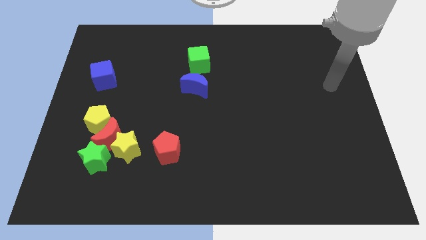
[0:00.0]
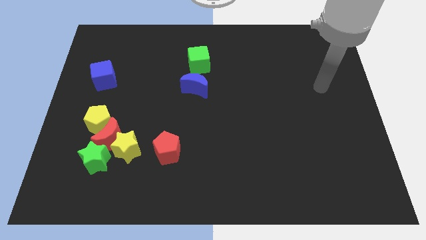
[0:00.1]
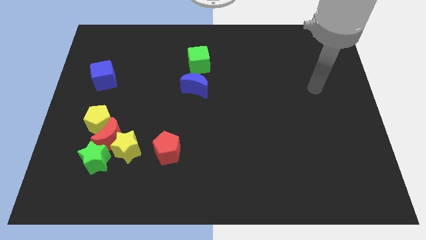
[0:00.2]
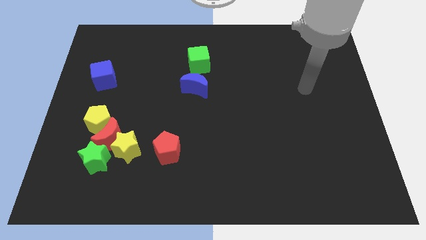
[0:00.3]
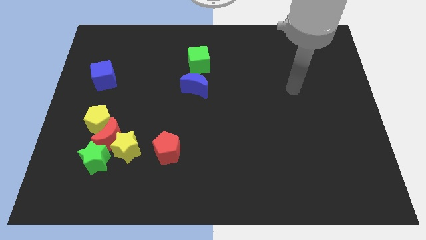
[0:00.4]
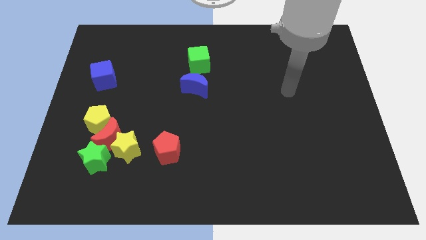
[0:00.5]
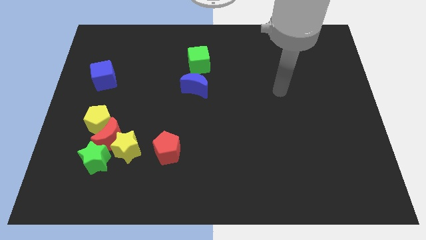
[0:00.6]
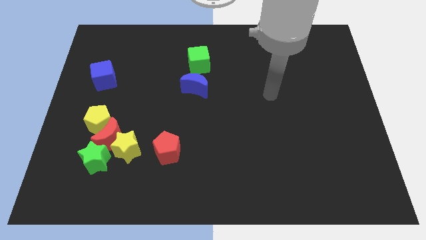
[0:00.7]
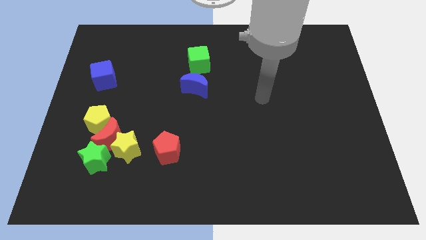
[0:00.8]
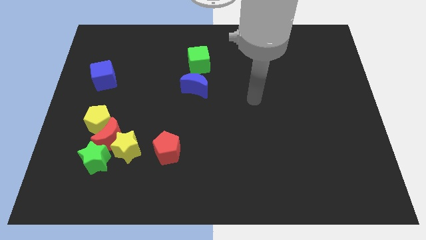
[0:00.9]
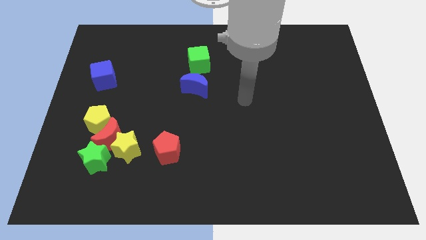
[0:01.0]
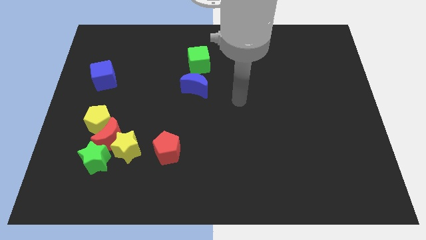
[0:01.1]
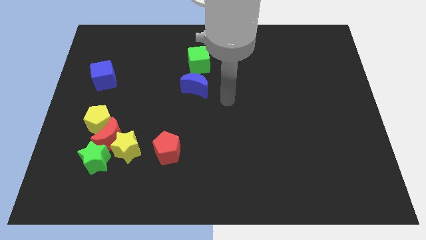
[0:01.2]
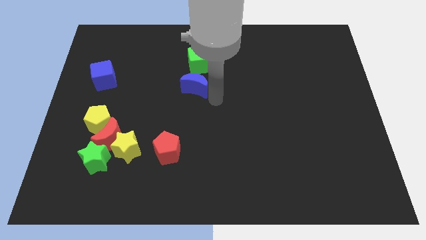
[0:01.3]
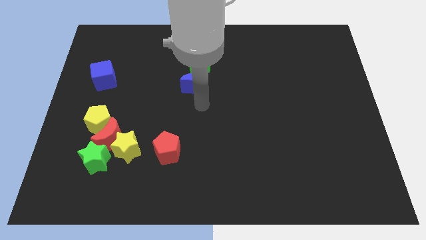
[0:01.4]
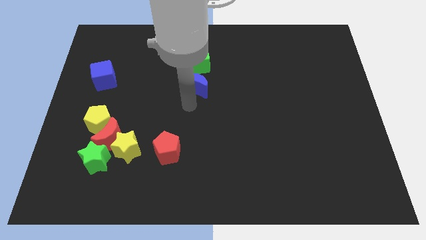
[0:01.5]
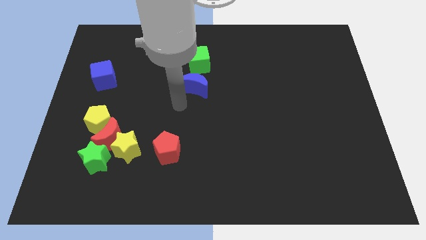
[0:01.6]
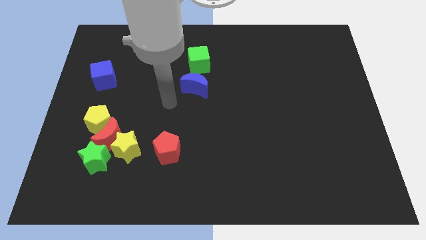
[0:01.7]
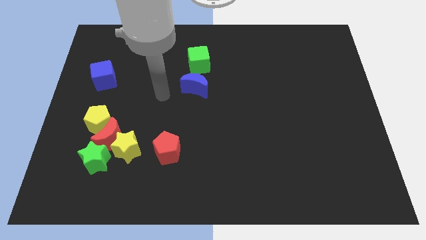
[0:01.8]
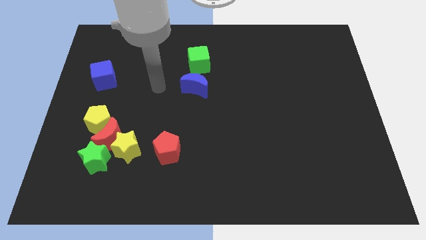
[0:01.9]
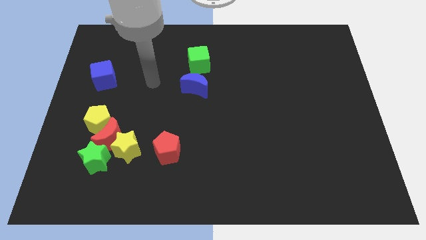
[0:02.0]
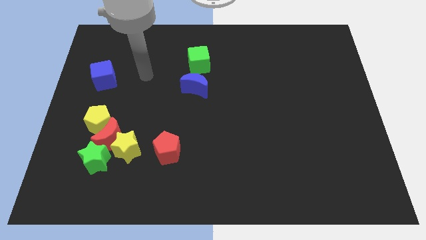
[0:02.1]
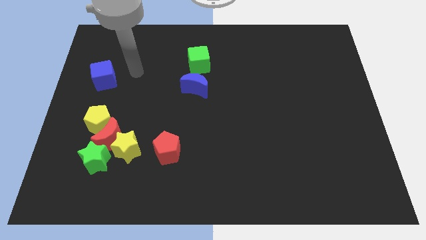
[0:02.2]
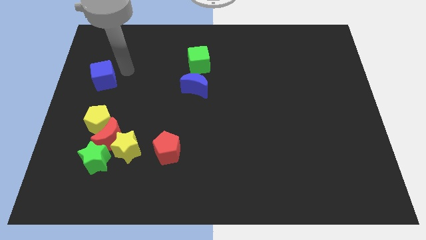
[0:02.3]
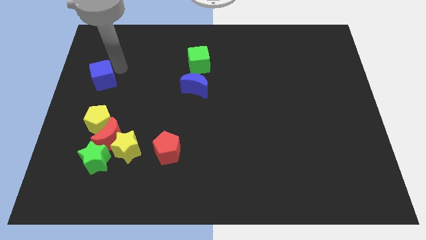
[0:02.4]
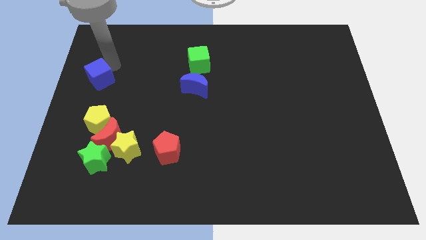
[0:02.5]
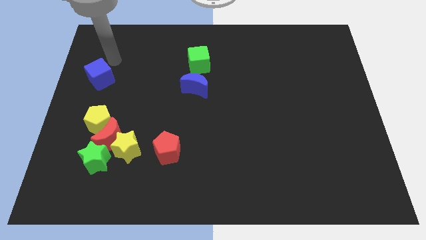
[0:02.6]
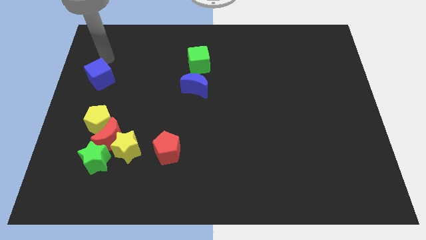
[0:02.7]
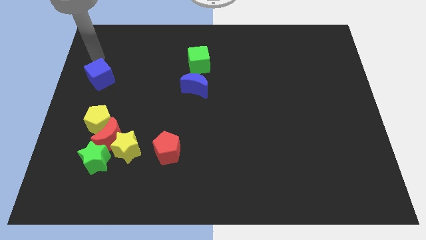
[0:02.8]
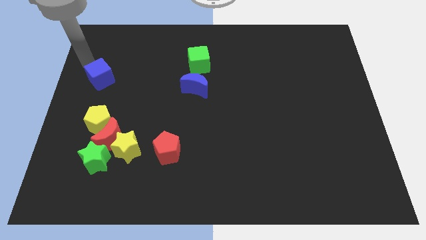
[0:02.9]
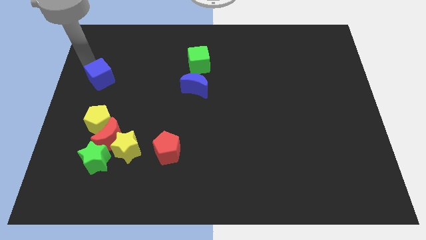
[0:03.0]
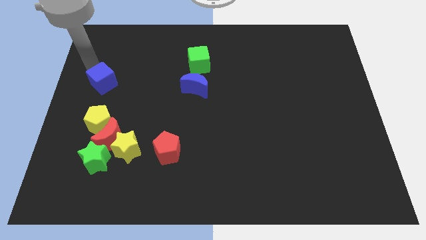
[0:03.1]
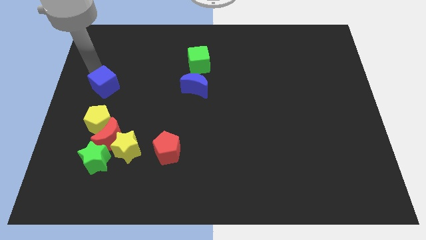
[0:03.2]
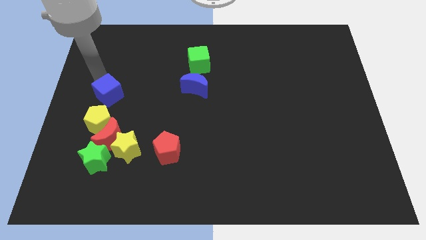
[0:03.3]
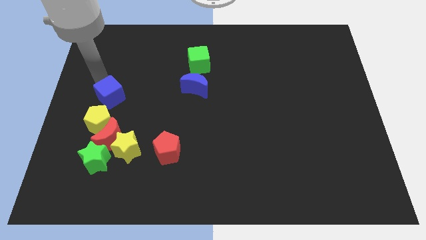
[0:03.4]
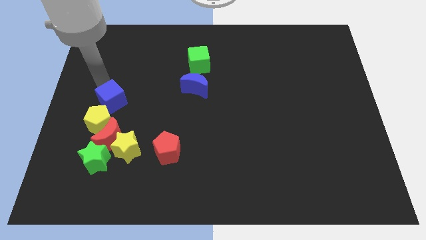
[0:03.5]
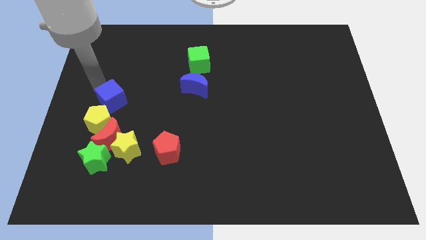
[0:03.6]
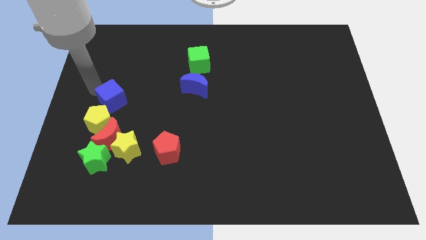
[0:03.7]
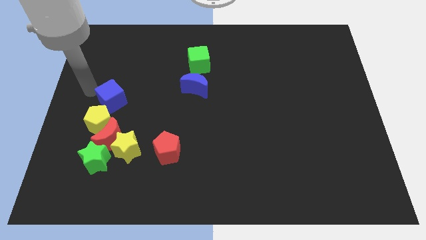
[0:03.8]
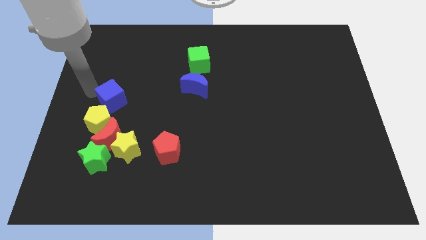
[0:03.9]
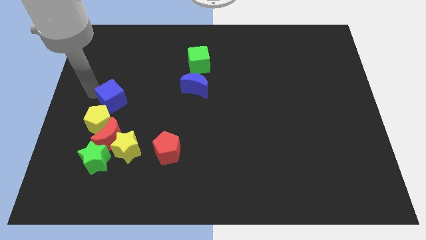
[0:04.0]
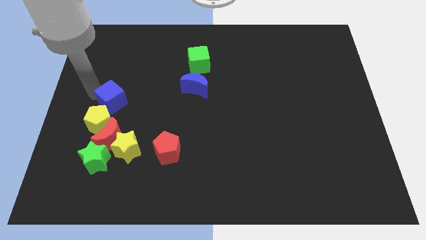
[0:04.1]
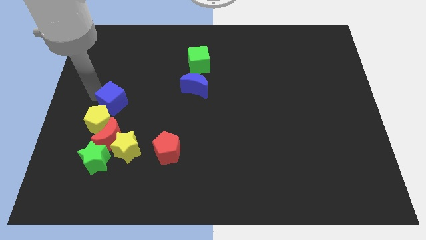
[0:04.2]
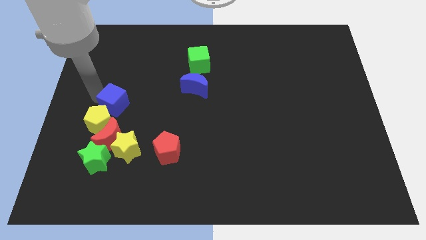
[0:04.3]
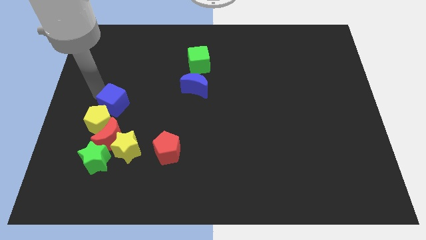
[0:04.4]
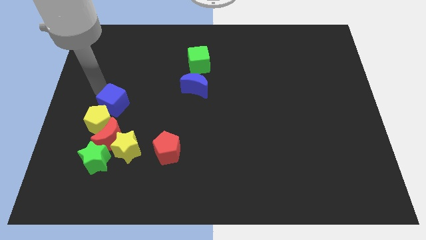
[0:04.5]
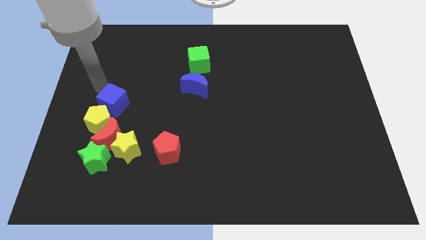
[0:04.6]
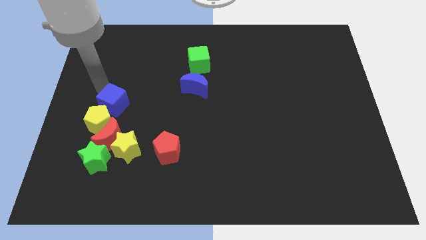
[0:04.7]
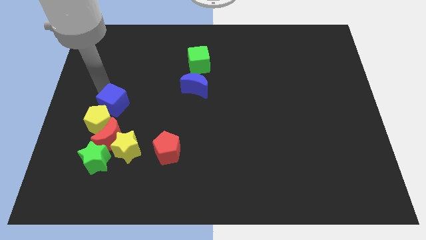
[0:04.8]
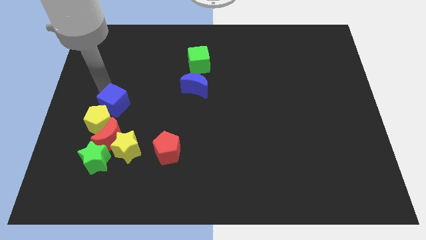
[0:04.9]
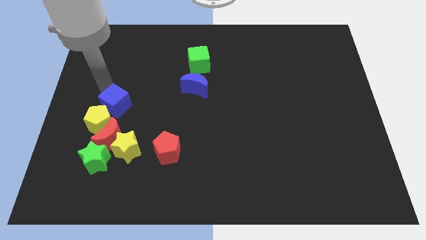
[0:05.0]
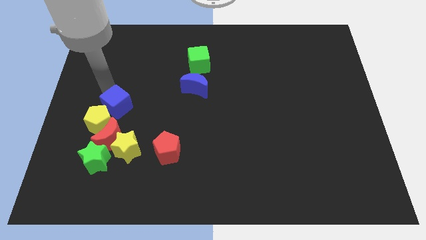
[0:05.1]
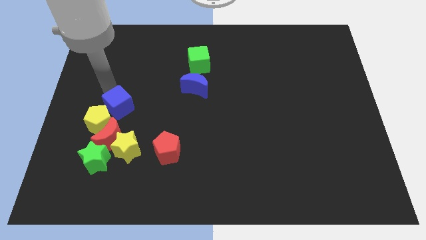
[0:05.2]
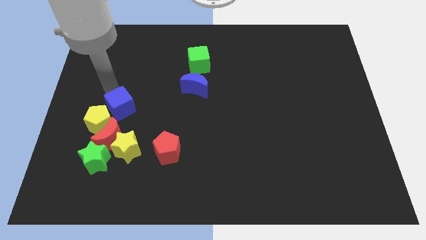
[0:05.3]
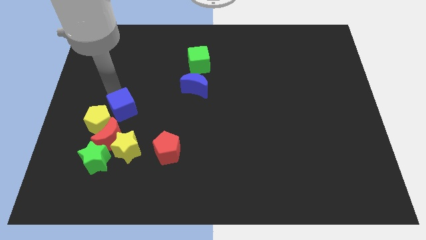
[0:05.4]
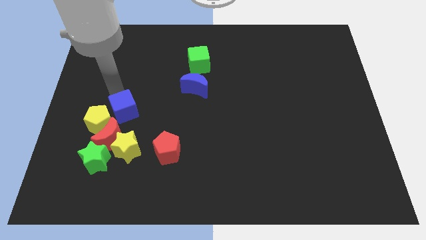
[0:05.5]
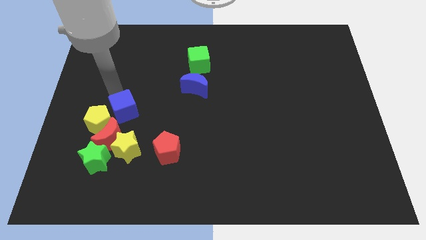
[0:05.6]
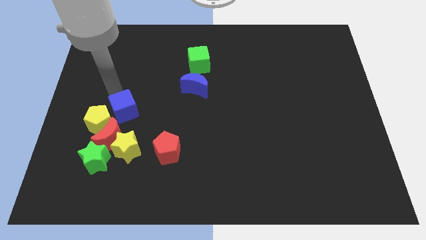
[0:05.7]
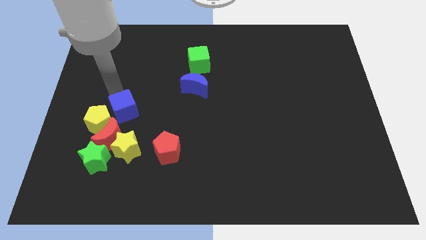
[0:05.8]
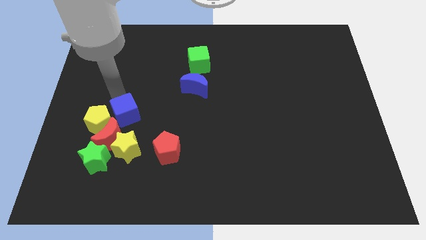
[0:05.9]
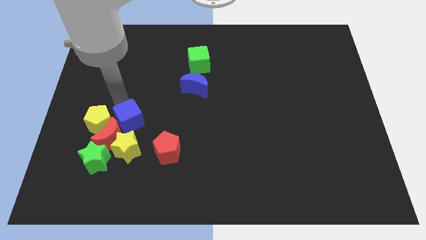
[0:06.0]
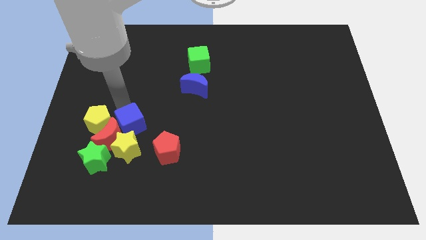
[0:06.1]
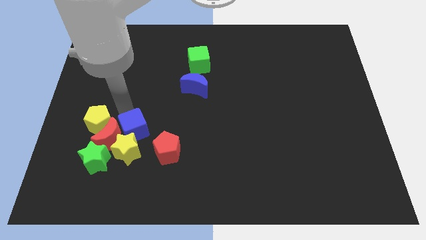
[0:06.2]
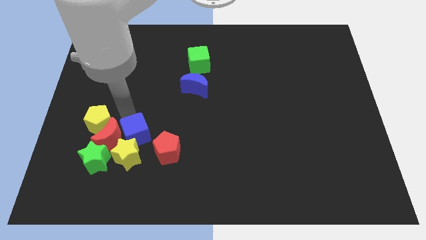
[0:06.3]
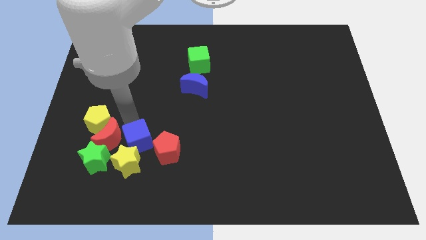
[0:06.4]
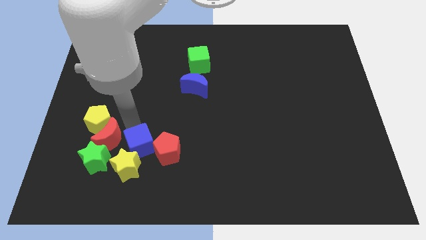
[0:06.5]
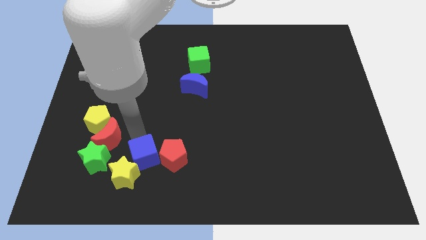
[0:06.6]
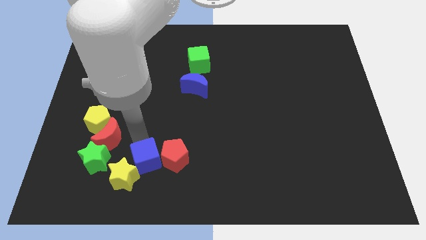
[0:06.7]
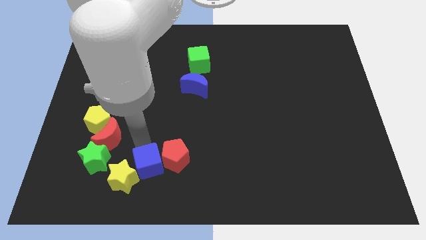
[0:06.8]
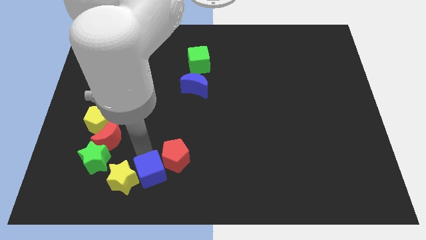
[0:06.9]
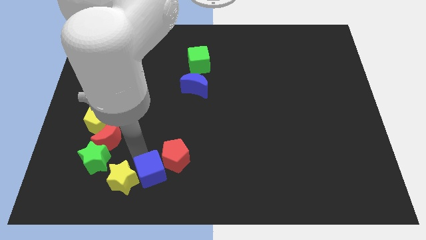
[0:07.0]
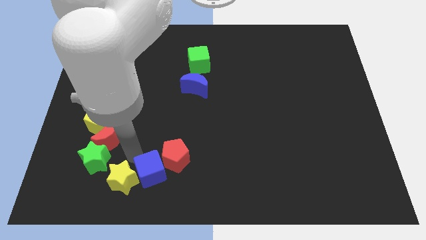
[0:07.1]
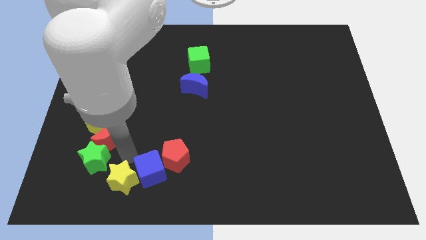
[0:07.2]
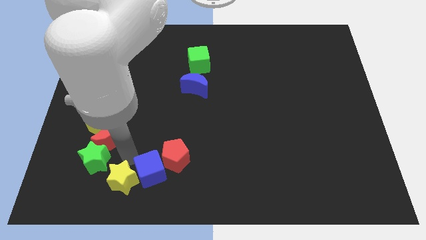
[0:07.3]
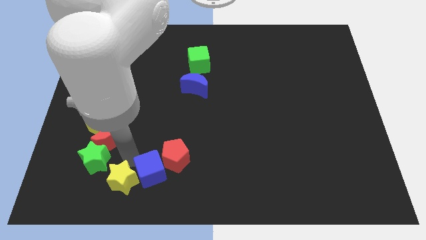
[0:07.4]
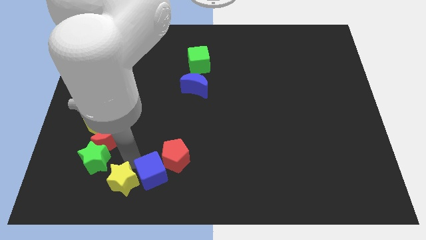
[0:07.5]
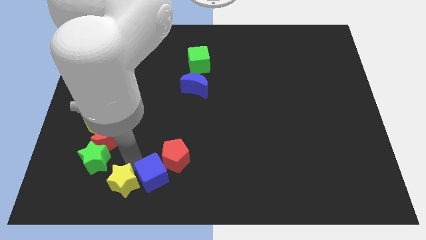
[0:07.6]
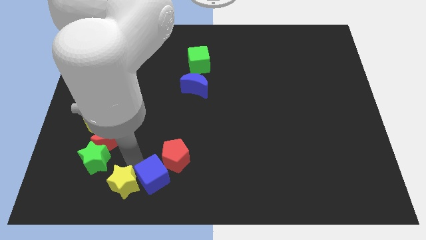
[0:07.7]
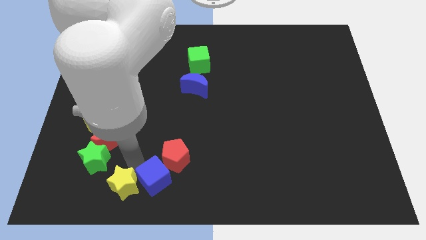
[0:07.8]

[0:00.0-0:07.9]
slide the blue cube to the bottom side
